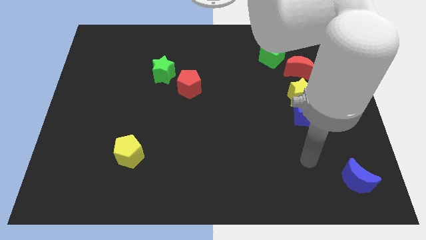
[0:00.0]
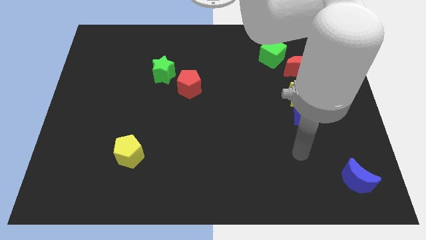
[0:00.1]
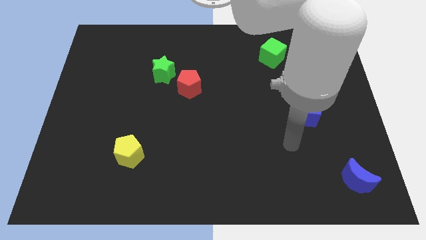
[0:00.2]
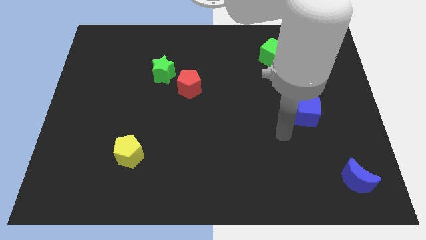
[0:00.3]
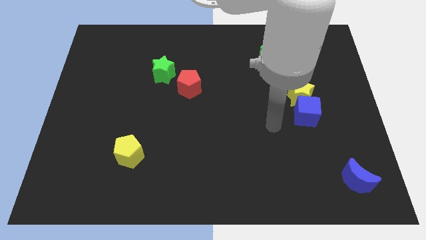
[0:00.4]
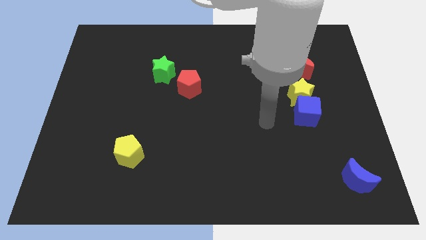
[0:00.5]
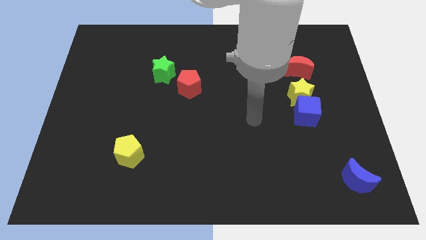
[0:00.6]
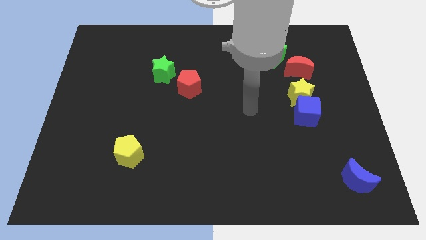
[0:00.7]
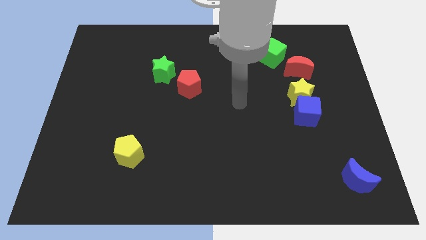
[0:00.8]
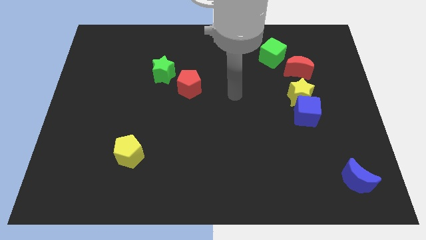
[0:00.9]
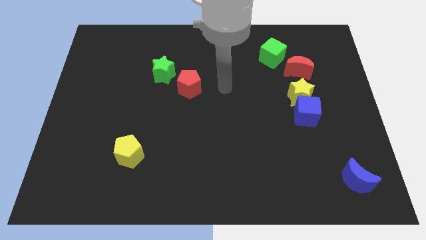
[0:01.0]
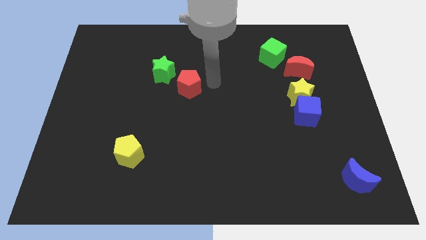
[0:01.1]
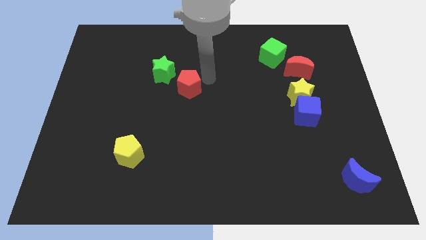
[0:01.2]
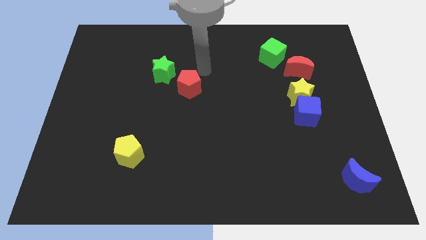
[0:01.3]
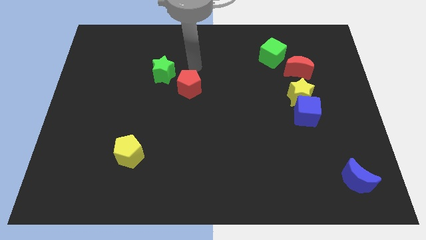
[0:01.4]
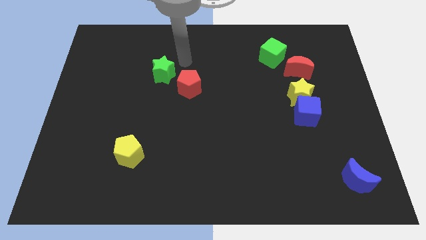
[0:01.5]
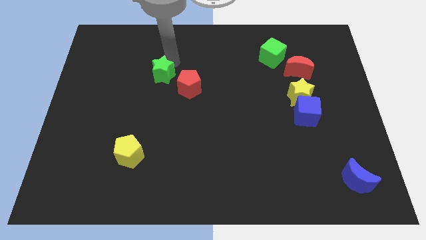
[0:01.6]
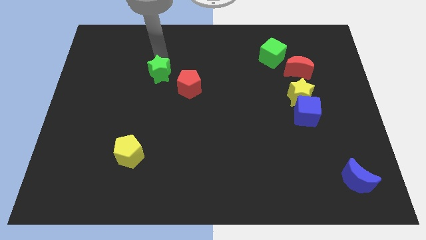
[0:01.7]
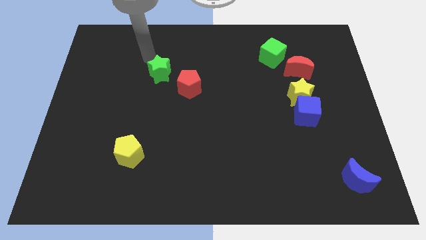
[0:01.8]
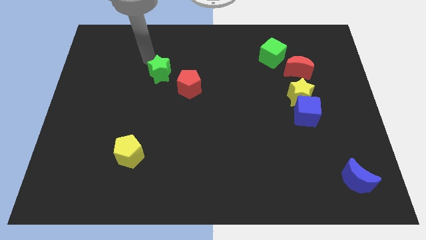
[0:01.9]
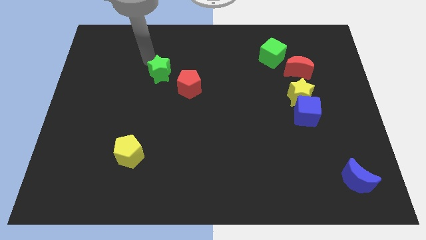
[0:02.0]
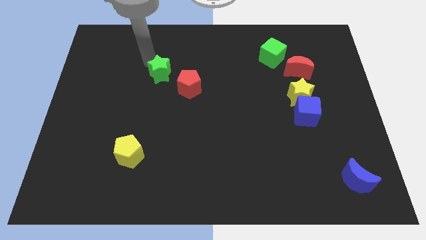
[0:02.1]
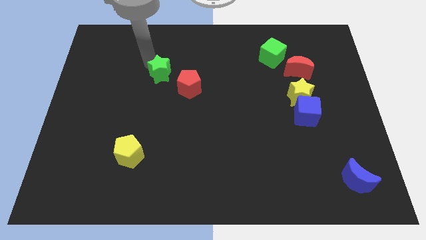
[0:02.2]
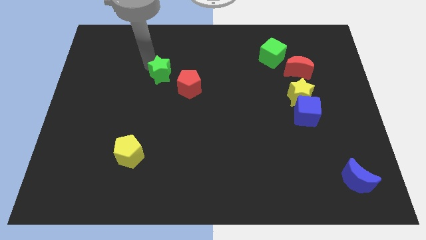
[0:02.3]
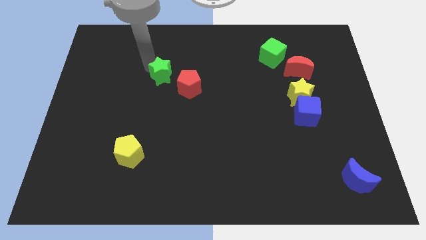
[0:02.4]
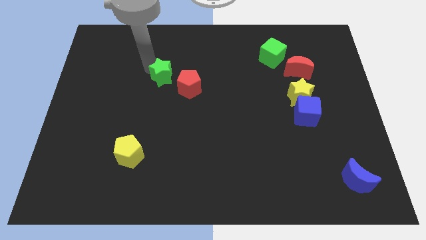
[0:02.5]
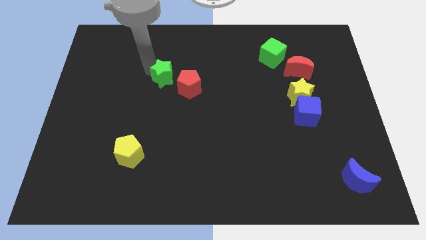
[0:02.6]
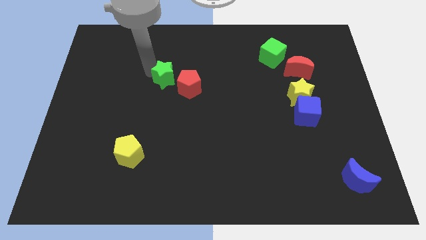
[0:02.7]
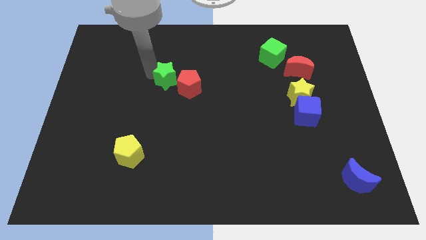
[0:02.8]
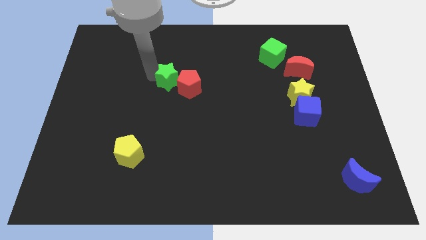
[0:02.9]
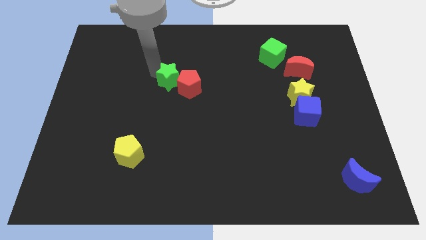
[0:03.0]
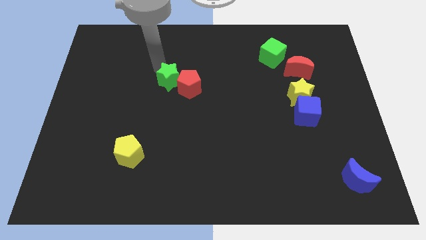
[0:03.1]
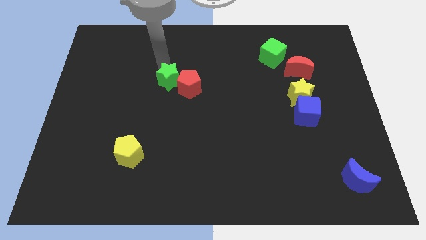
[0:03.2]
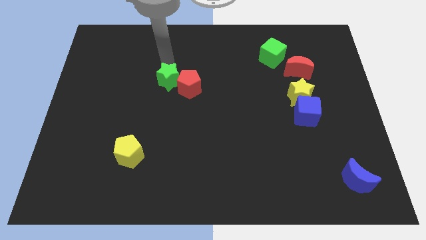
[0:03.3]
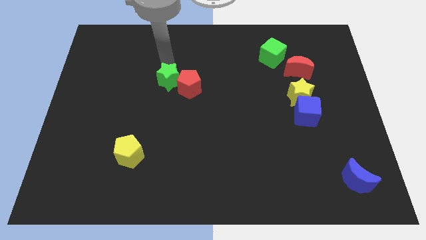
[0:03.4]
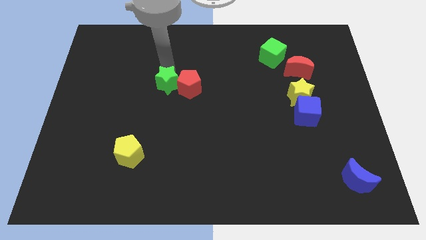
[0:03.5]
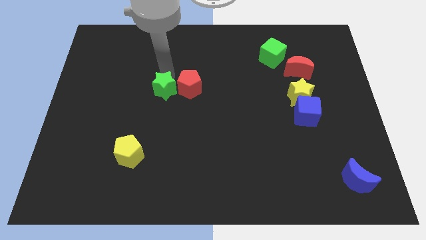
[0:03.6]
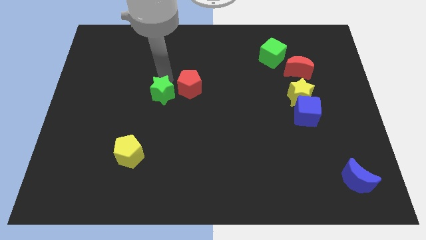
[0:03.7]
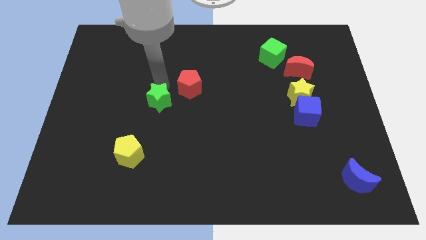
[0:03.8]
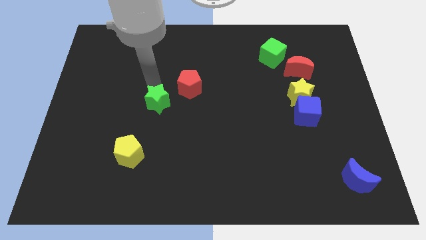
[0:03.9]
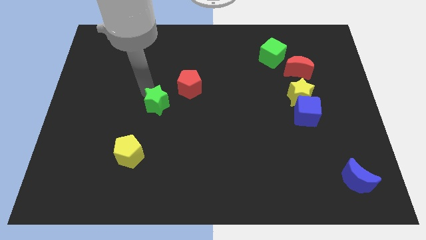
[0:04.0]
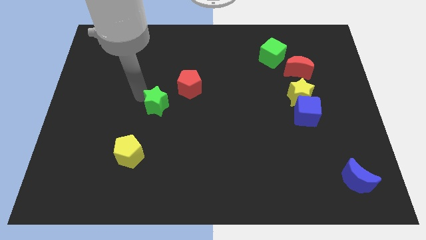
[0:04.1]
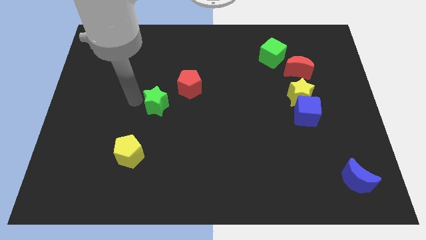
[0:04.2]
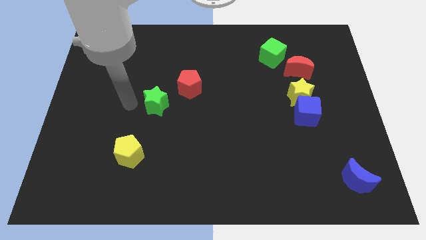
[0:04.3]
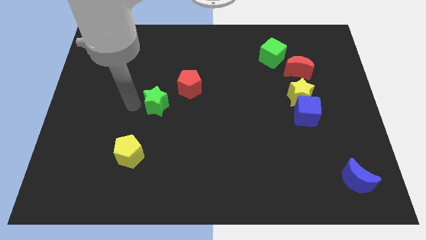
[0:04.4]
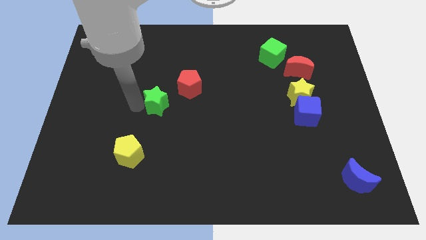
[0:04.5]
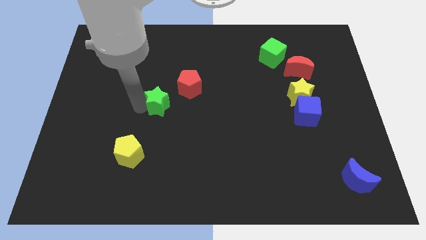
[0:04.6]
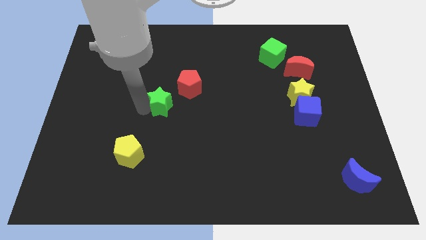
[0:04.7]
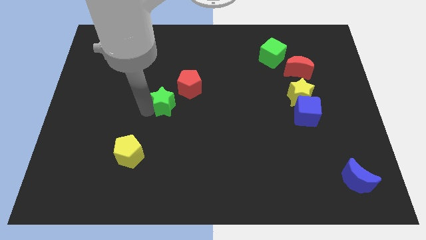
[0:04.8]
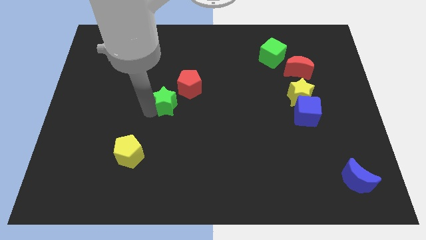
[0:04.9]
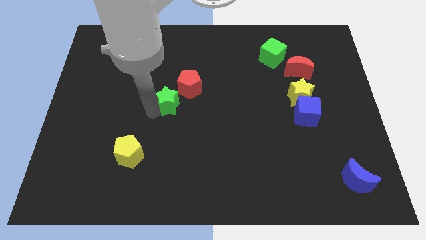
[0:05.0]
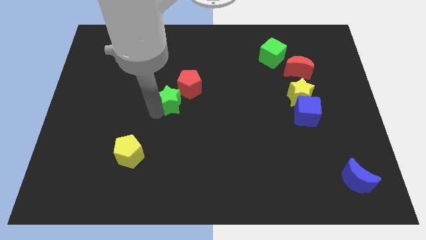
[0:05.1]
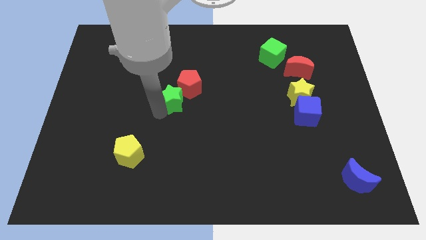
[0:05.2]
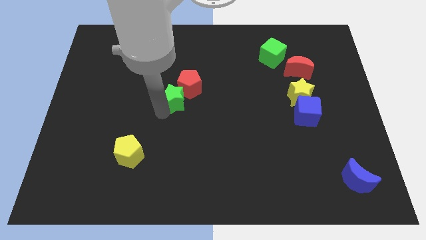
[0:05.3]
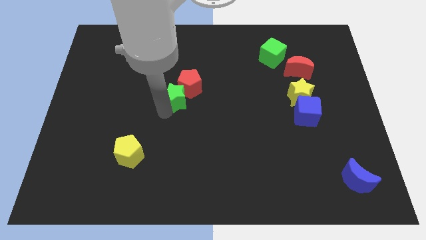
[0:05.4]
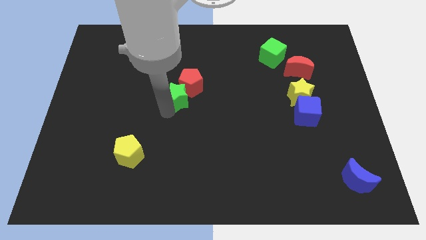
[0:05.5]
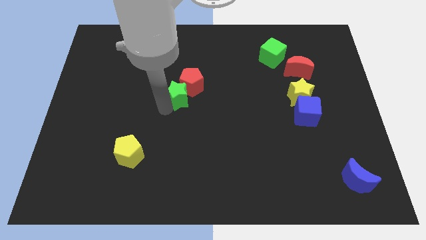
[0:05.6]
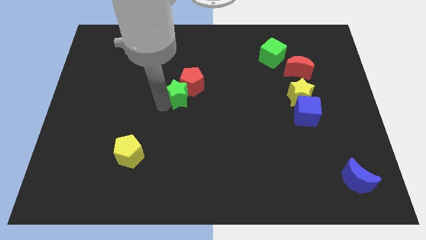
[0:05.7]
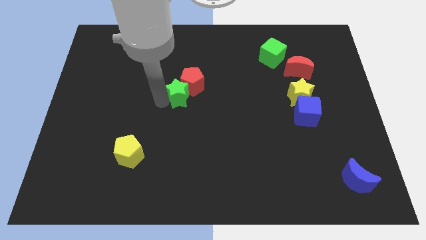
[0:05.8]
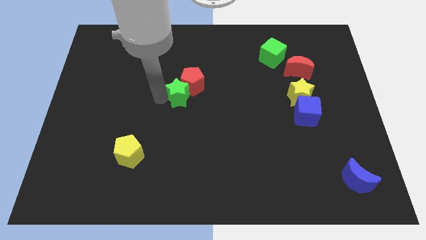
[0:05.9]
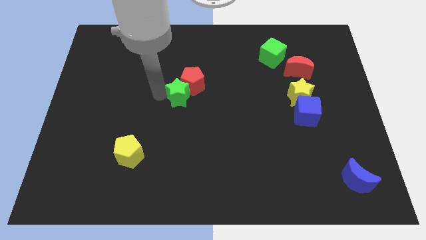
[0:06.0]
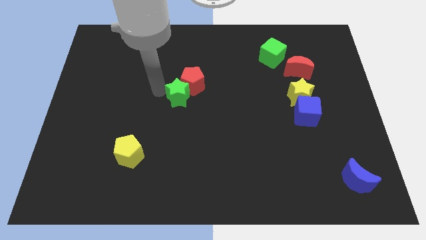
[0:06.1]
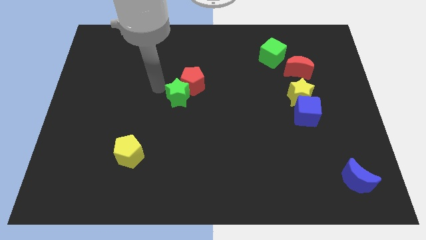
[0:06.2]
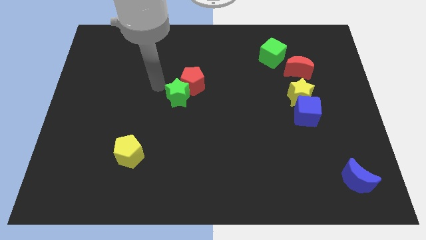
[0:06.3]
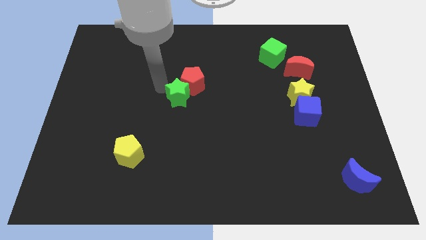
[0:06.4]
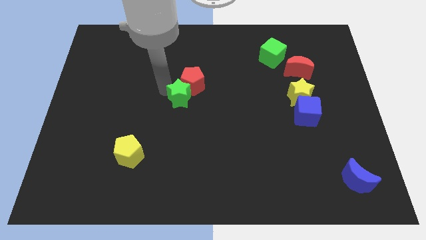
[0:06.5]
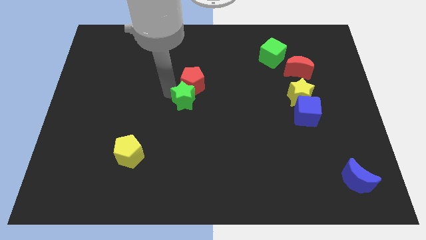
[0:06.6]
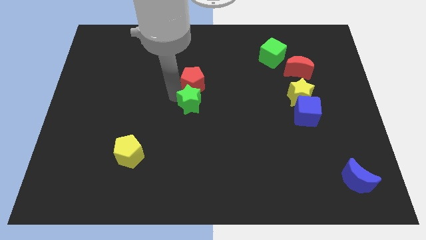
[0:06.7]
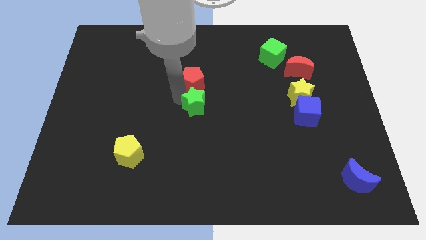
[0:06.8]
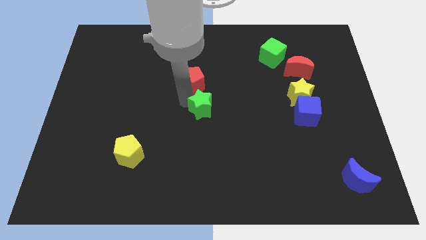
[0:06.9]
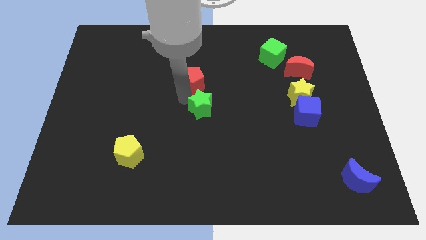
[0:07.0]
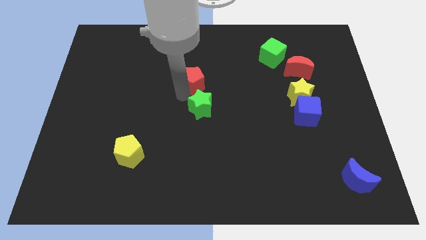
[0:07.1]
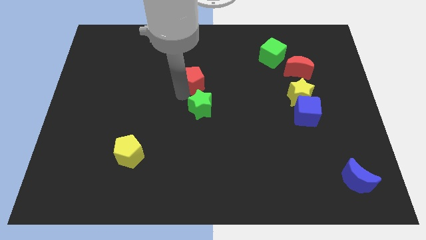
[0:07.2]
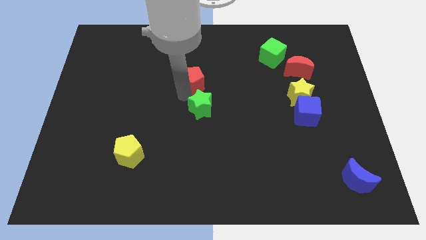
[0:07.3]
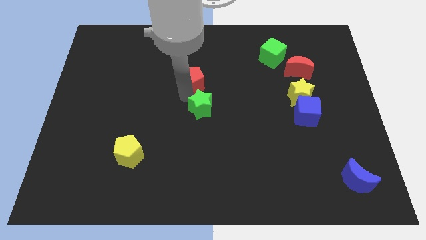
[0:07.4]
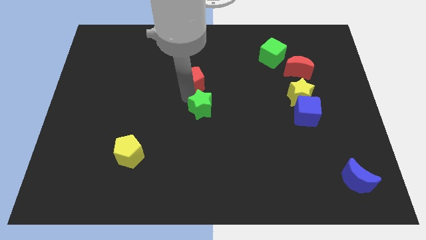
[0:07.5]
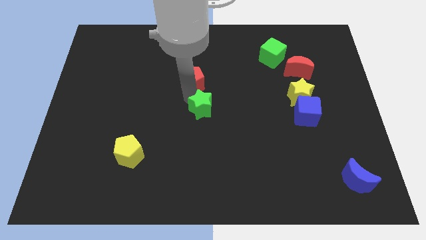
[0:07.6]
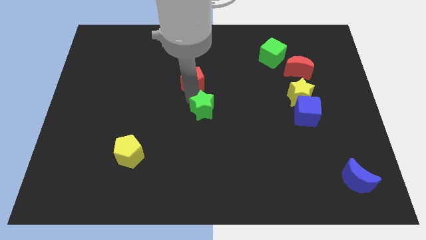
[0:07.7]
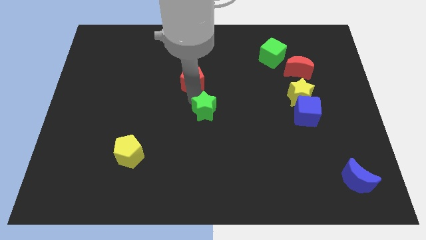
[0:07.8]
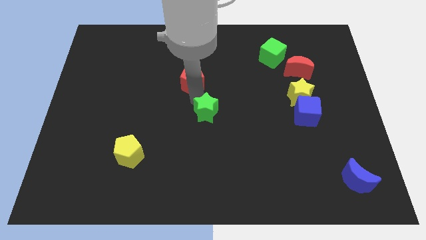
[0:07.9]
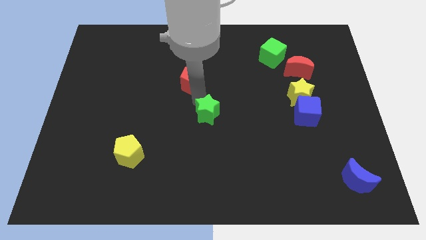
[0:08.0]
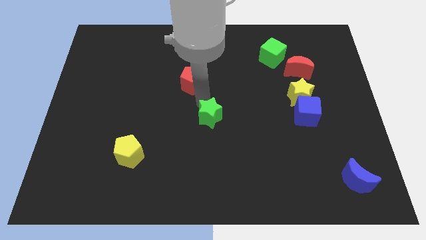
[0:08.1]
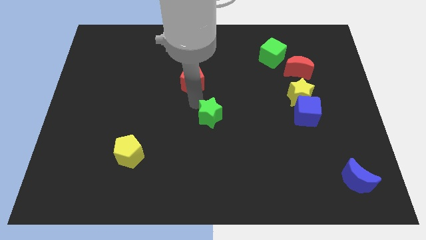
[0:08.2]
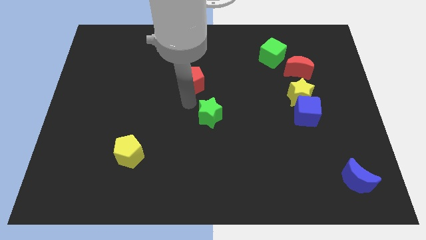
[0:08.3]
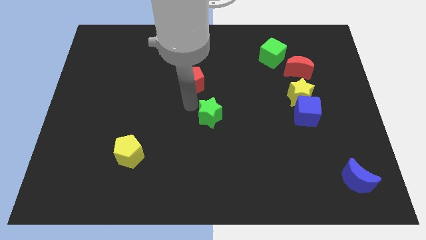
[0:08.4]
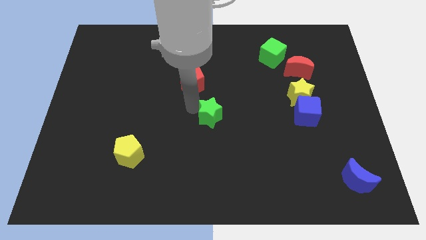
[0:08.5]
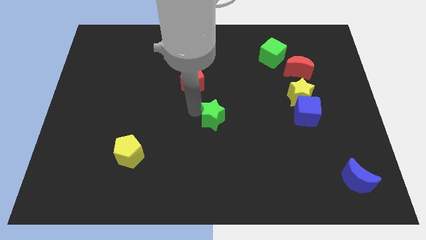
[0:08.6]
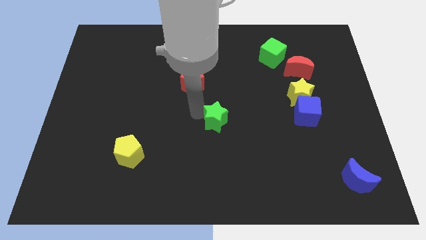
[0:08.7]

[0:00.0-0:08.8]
move the green star downwards and then to the right
